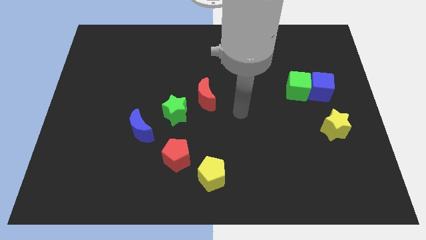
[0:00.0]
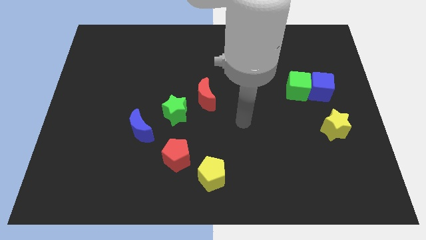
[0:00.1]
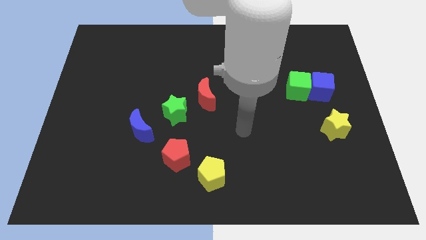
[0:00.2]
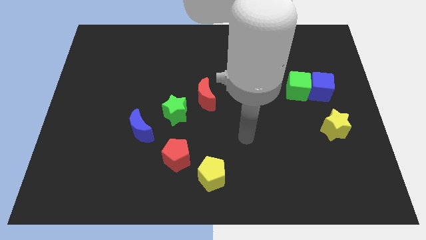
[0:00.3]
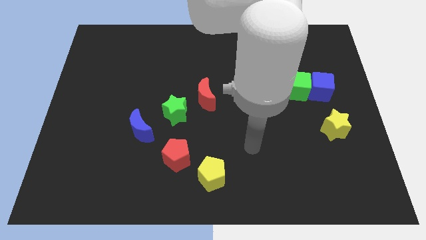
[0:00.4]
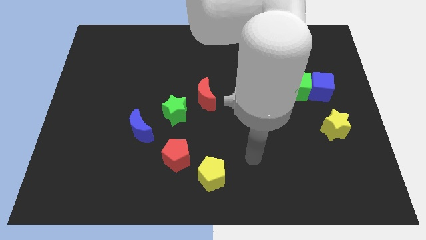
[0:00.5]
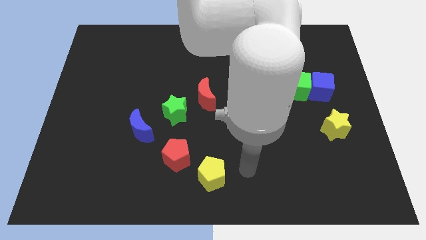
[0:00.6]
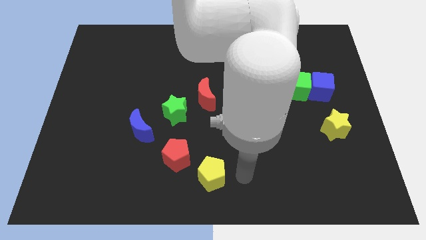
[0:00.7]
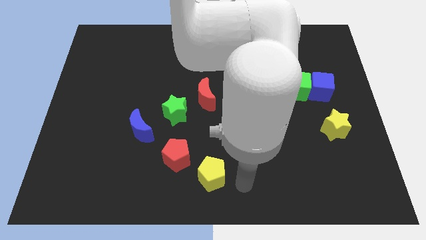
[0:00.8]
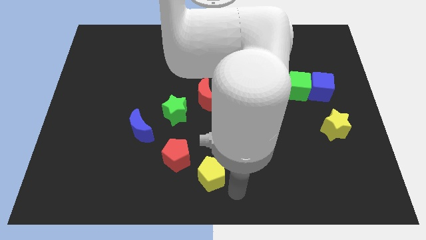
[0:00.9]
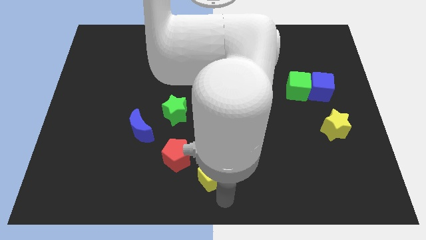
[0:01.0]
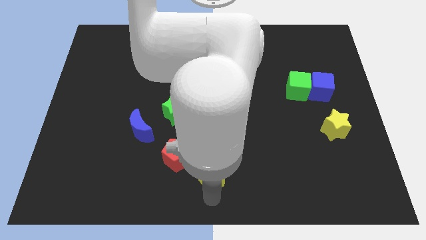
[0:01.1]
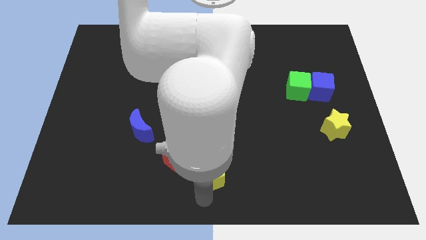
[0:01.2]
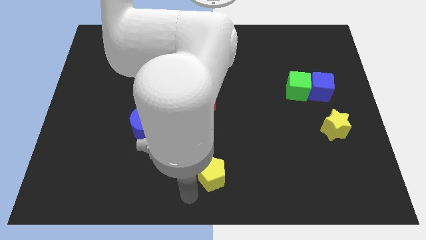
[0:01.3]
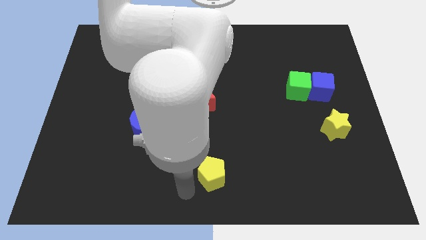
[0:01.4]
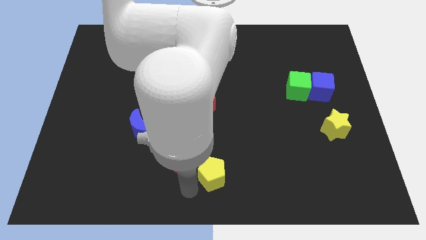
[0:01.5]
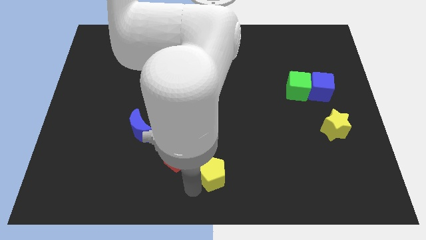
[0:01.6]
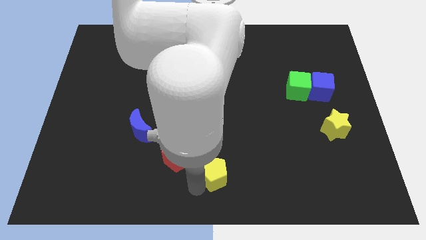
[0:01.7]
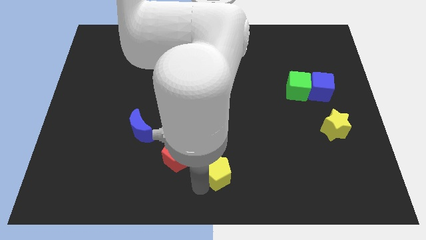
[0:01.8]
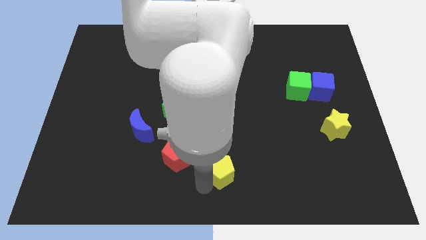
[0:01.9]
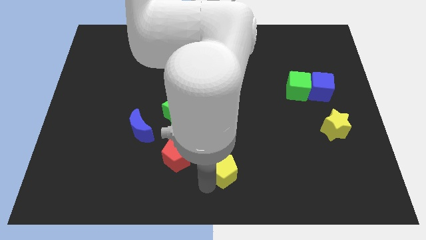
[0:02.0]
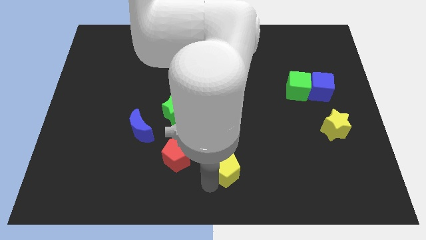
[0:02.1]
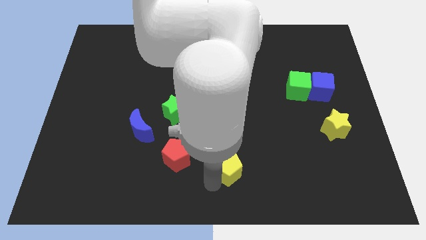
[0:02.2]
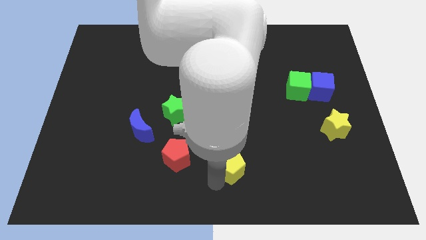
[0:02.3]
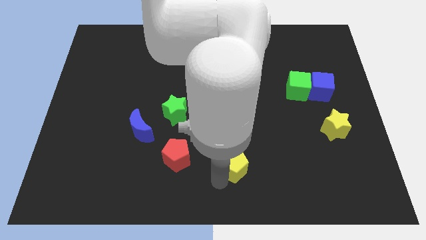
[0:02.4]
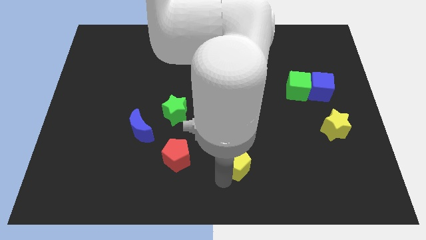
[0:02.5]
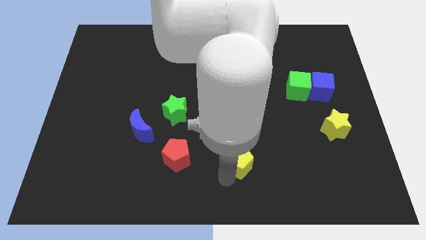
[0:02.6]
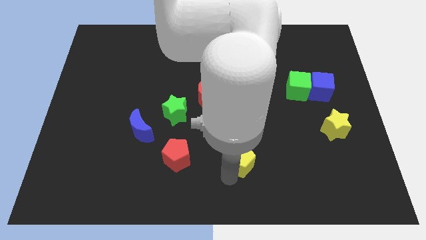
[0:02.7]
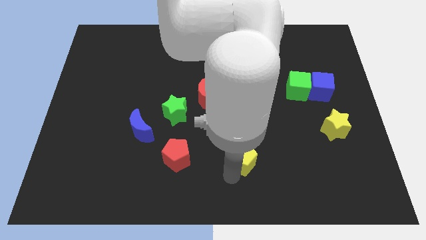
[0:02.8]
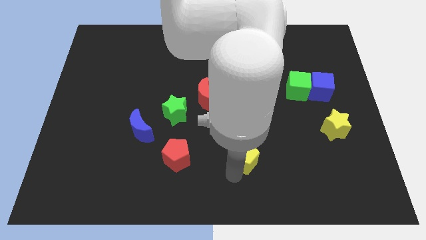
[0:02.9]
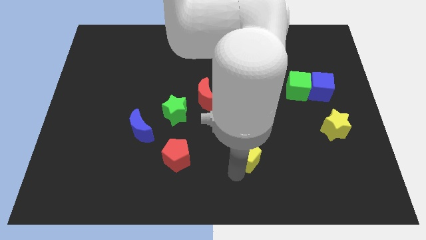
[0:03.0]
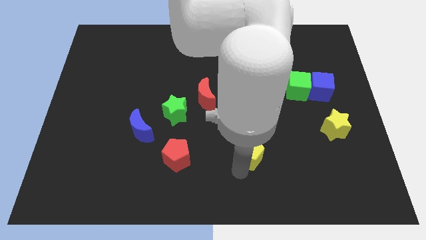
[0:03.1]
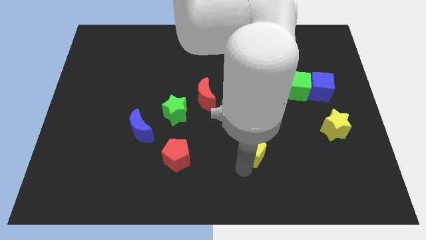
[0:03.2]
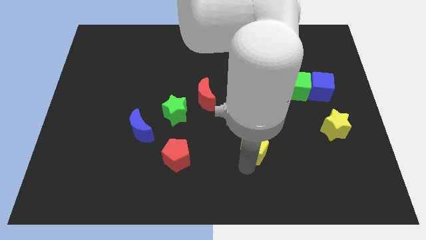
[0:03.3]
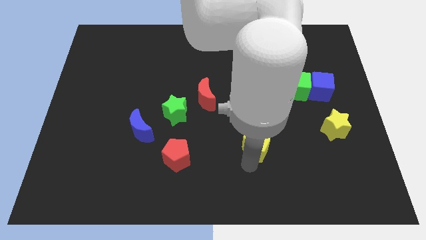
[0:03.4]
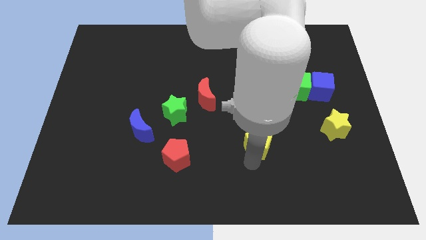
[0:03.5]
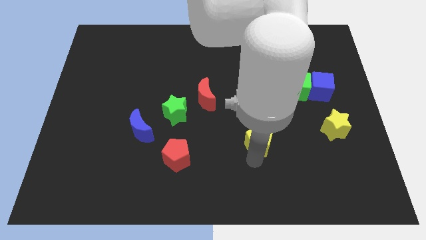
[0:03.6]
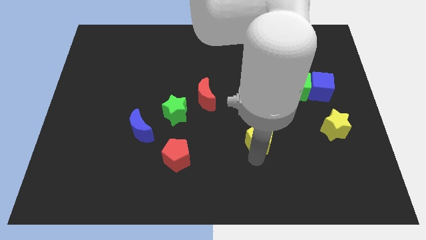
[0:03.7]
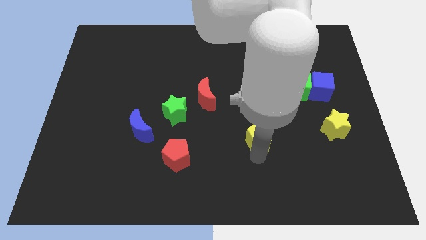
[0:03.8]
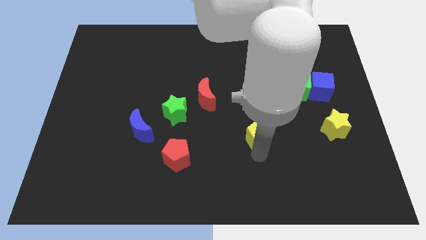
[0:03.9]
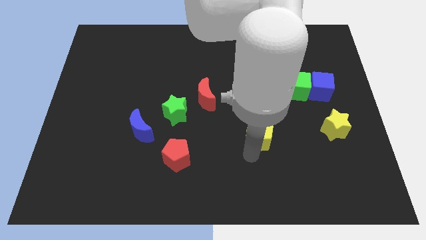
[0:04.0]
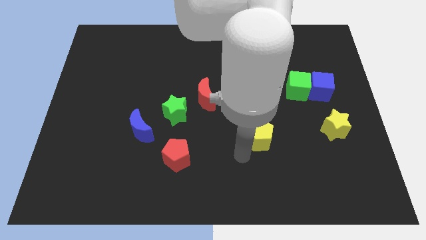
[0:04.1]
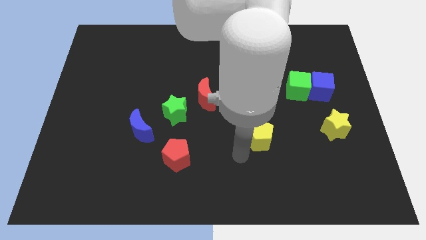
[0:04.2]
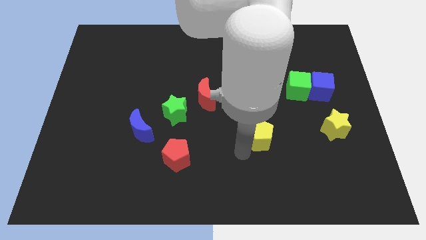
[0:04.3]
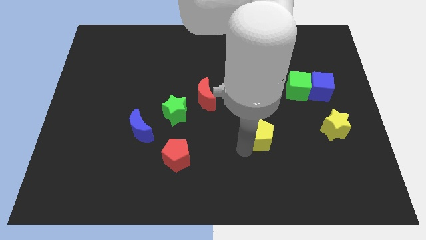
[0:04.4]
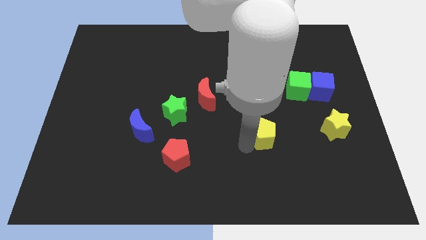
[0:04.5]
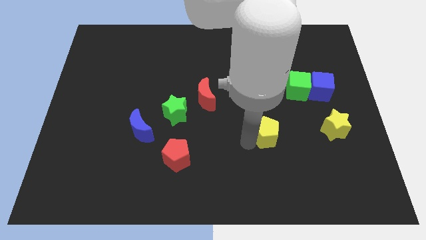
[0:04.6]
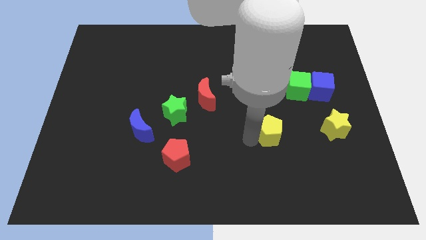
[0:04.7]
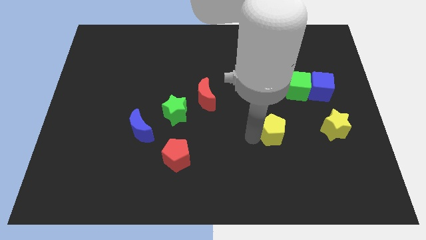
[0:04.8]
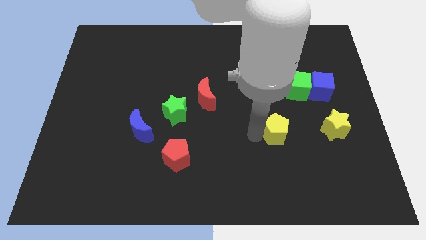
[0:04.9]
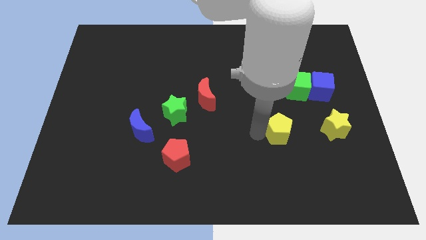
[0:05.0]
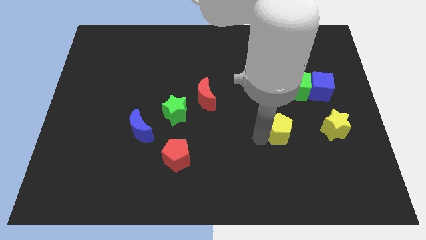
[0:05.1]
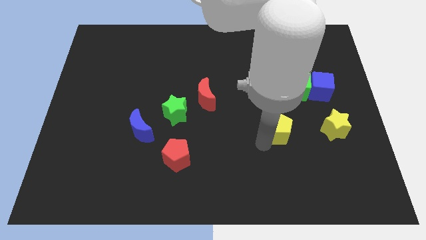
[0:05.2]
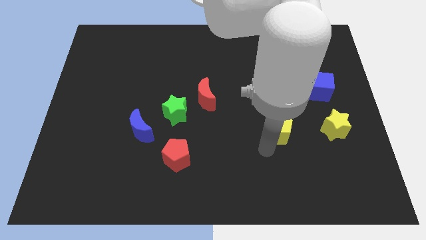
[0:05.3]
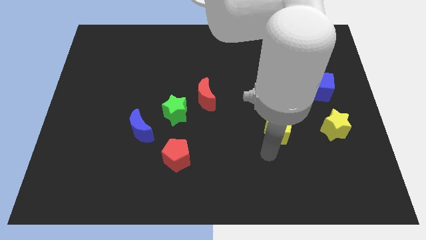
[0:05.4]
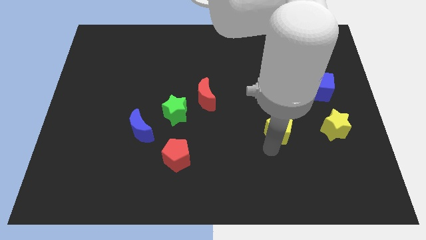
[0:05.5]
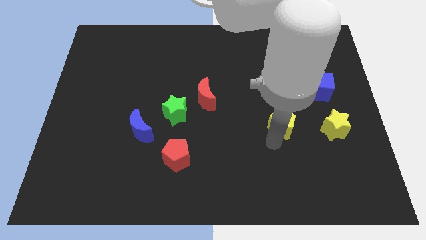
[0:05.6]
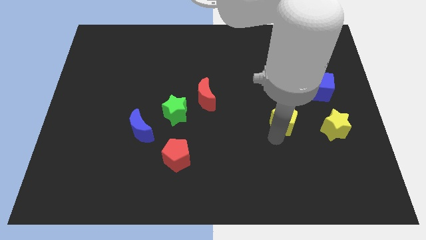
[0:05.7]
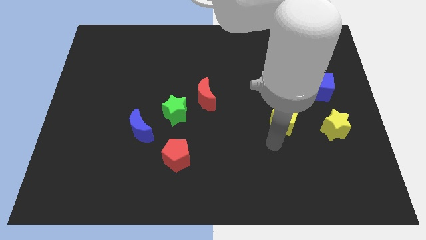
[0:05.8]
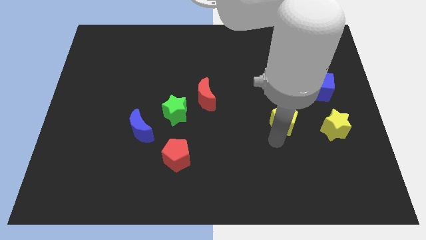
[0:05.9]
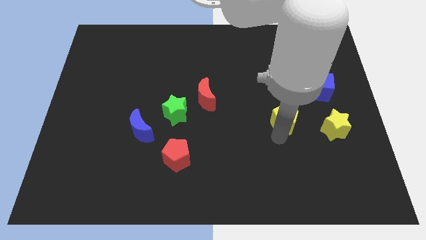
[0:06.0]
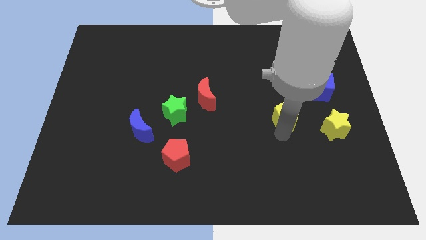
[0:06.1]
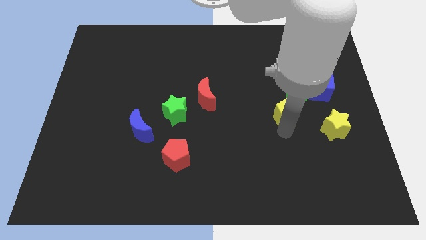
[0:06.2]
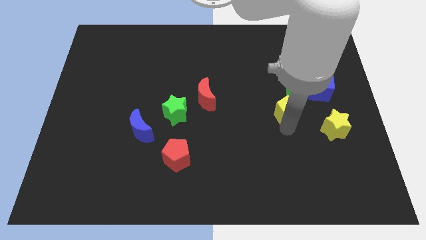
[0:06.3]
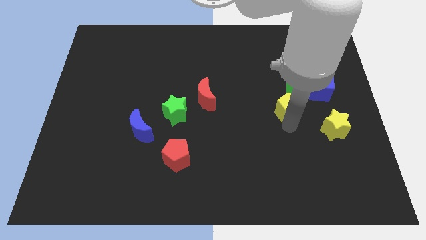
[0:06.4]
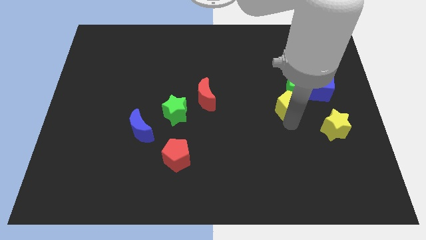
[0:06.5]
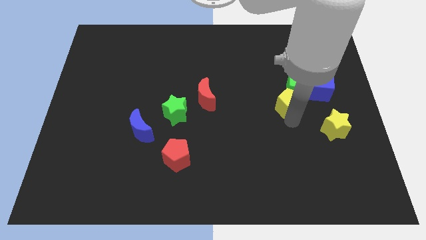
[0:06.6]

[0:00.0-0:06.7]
push the yellow pentagon towards the green cube
